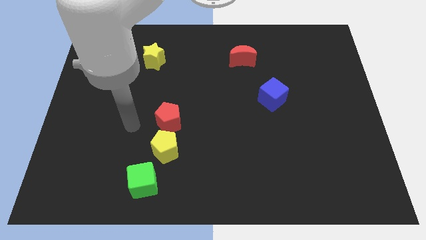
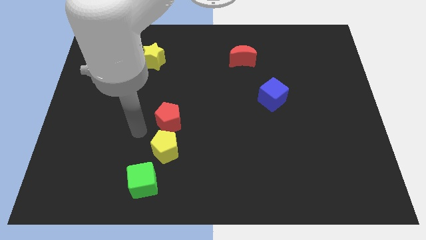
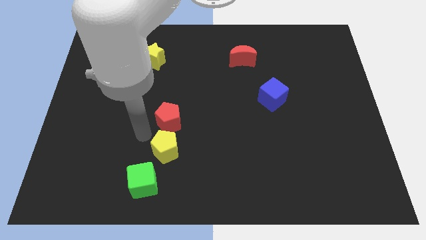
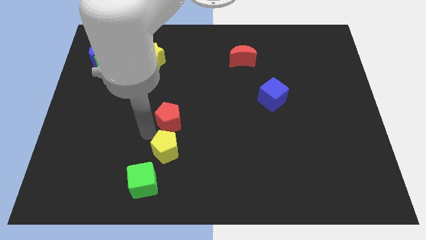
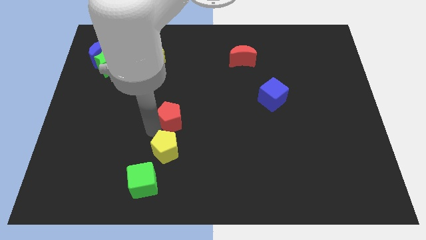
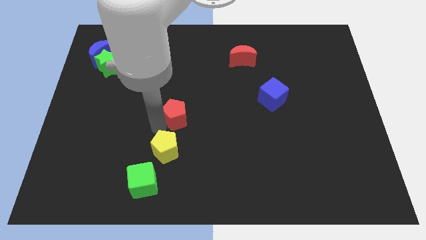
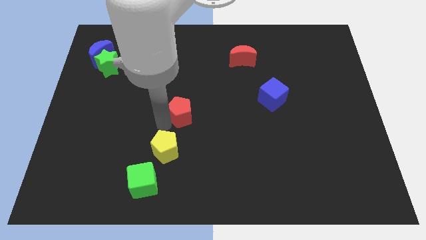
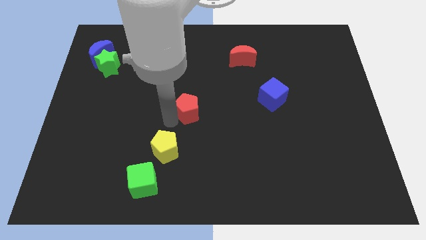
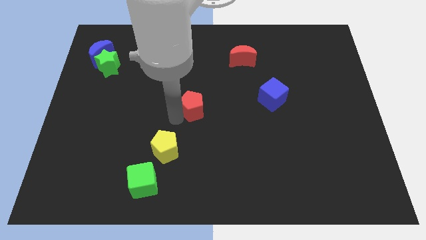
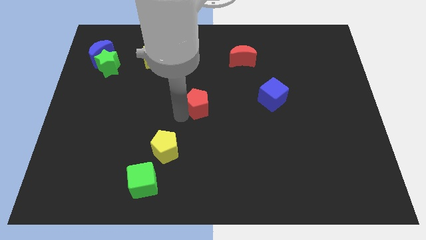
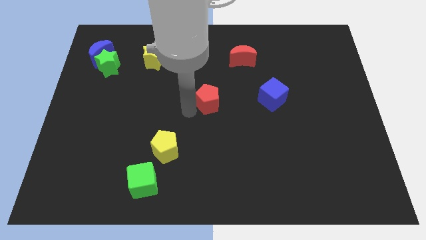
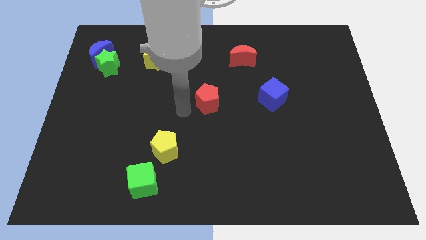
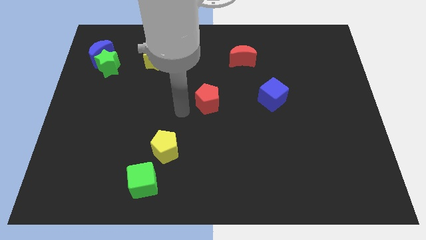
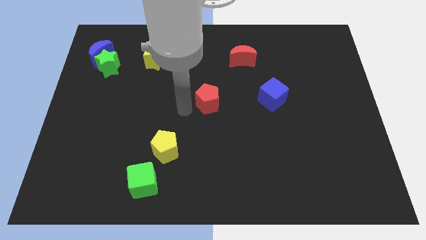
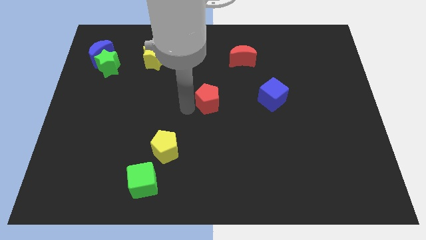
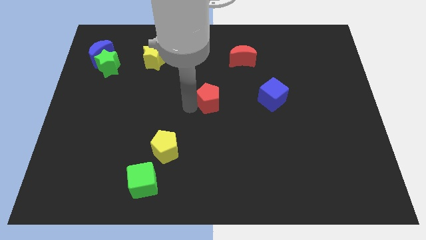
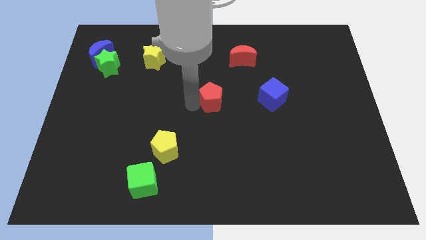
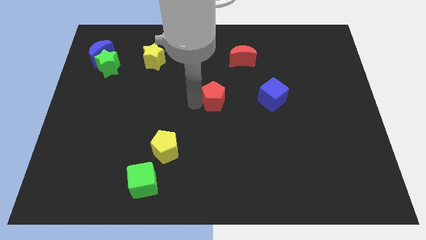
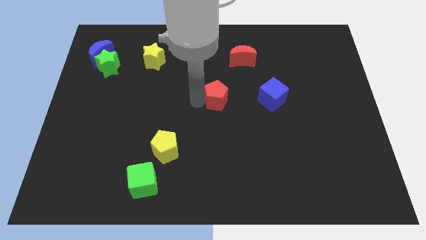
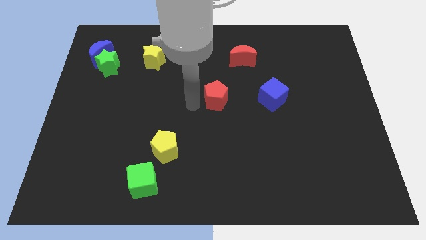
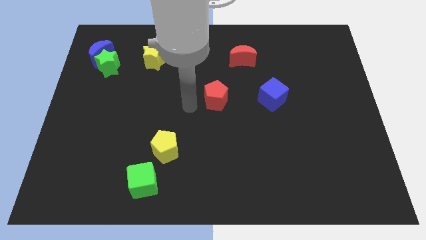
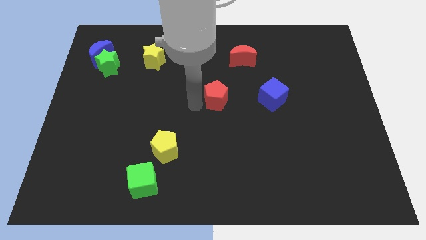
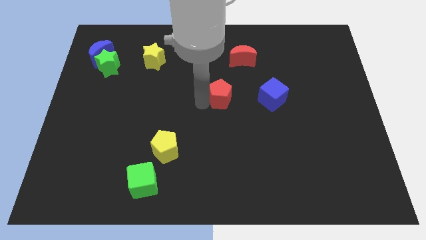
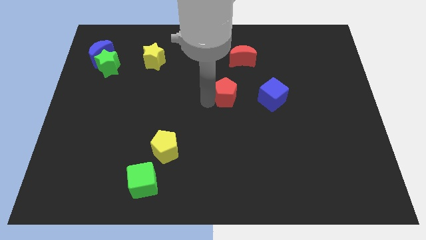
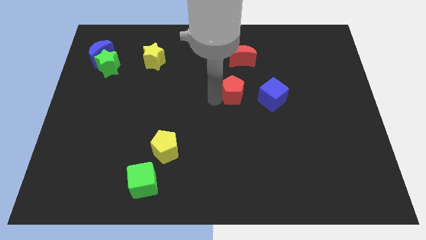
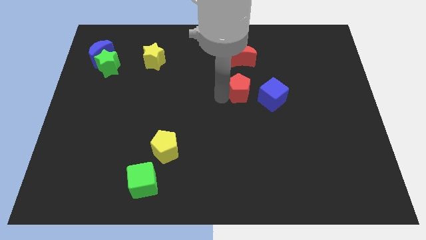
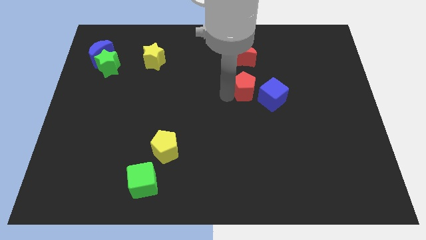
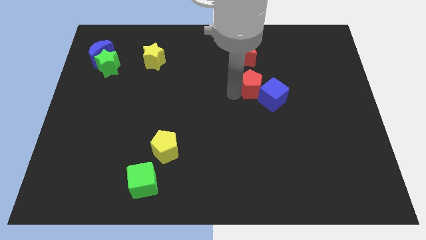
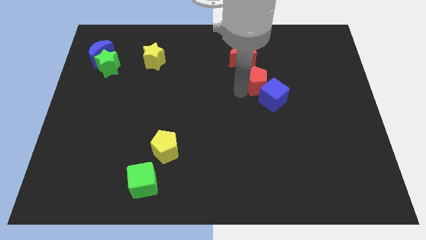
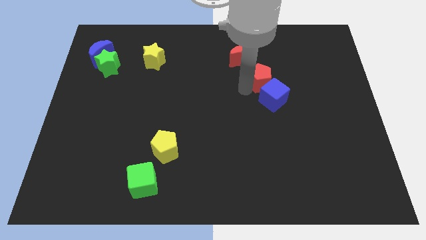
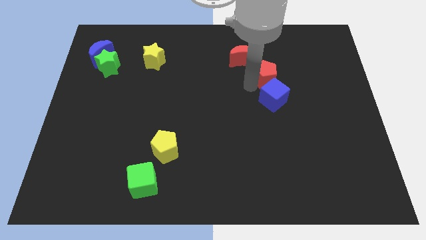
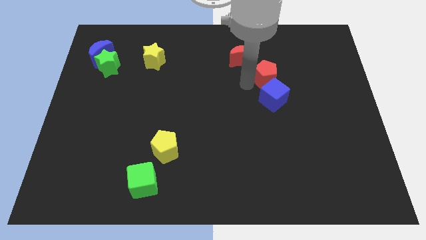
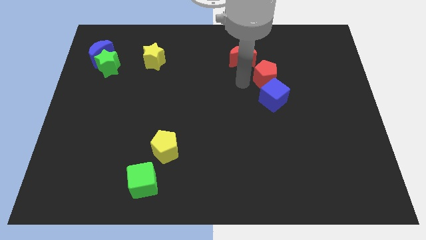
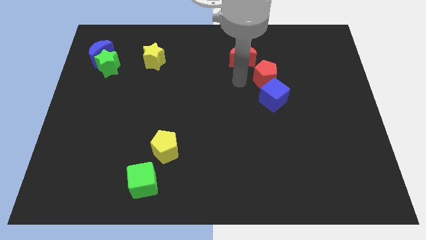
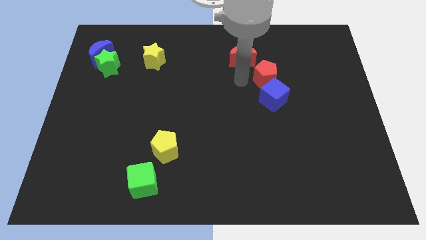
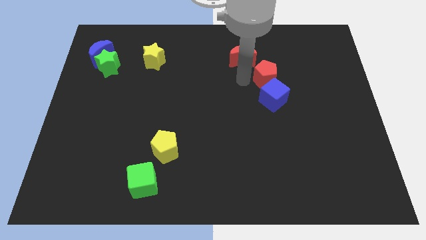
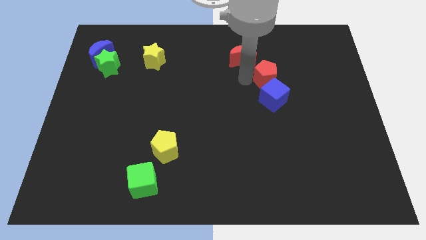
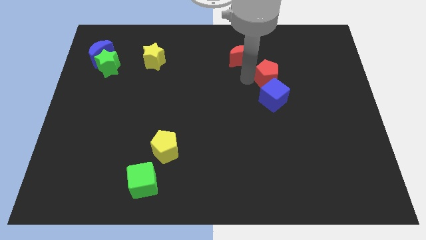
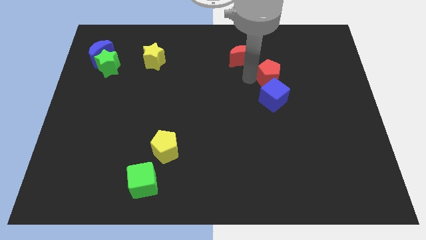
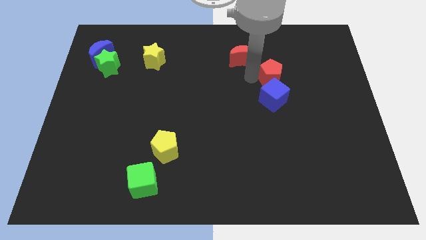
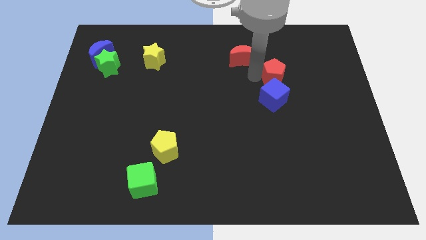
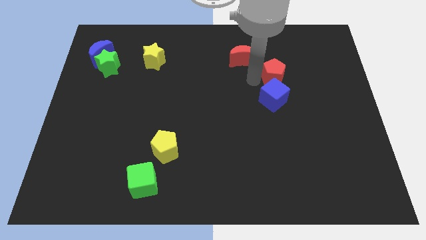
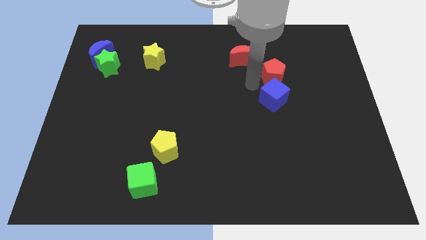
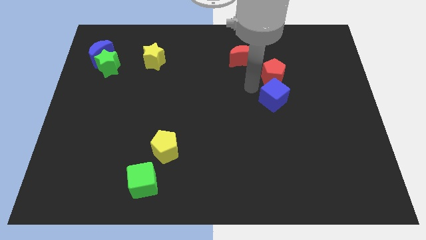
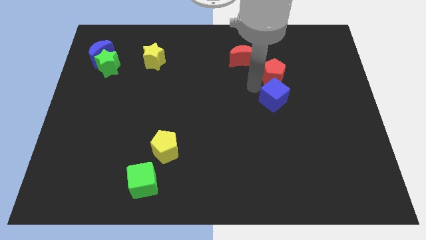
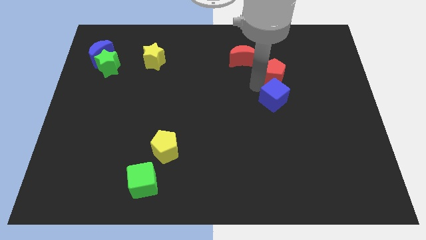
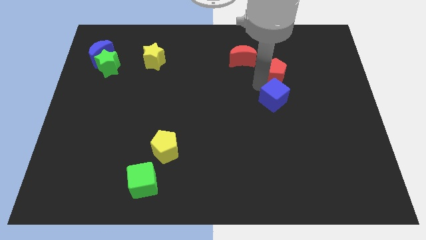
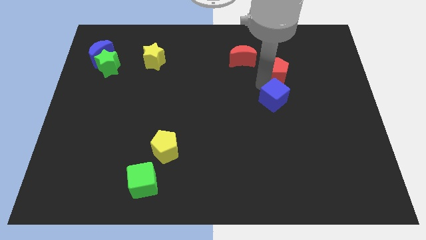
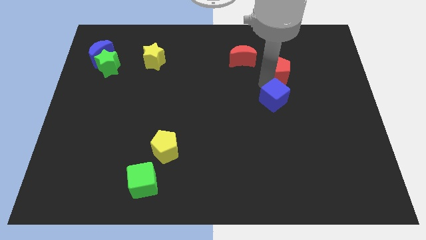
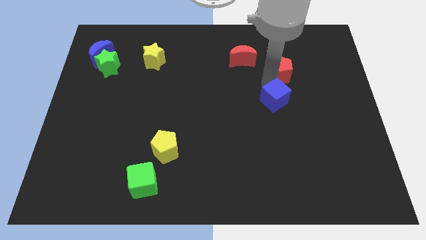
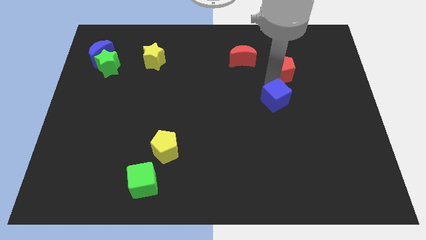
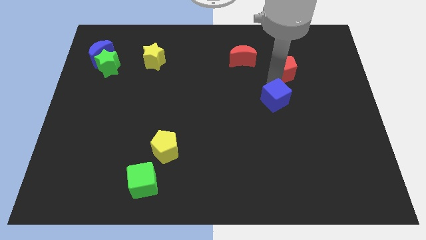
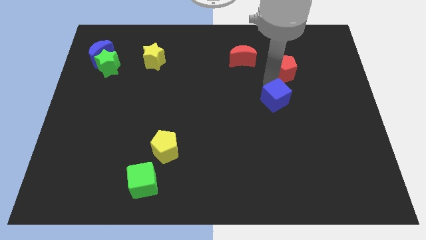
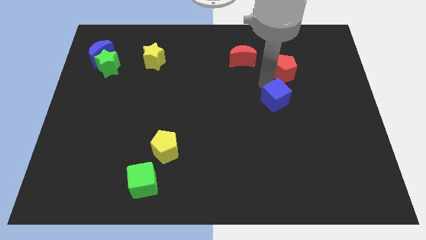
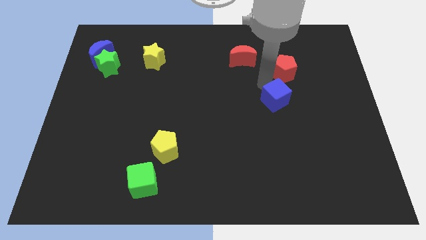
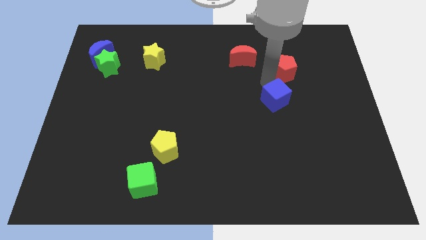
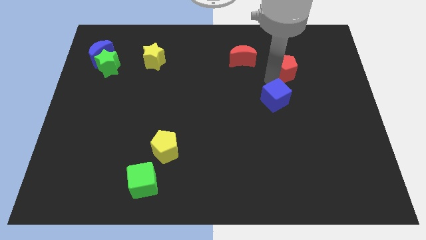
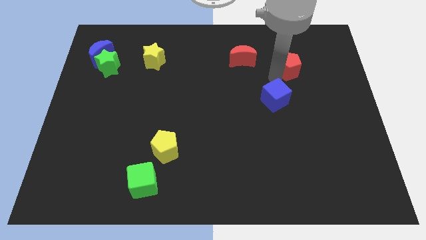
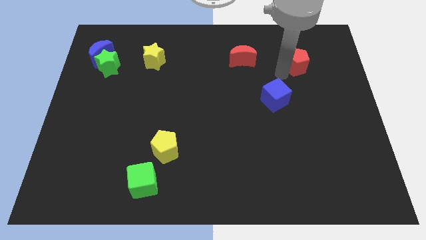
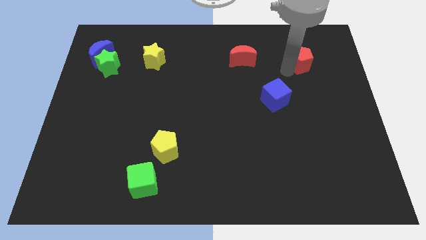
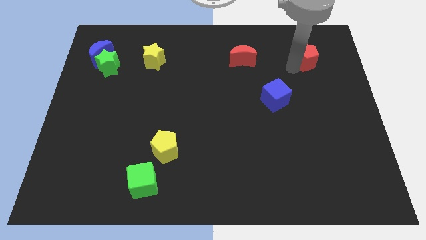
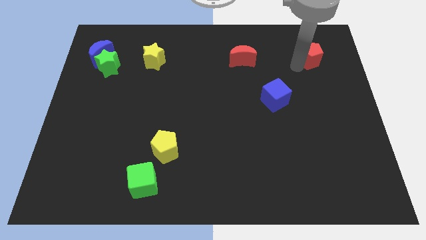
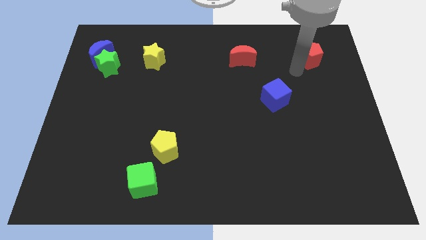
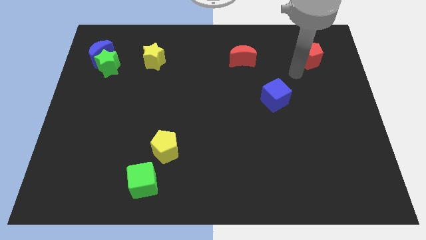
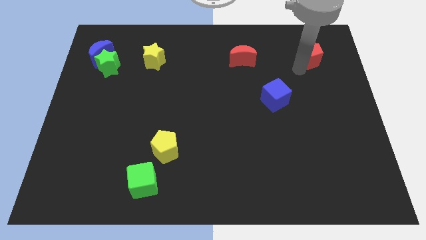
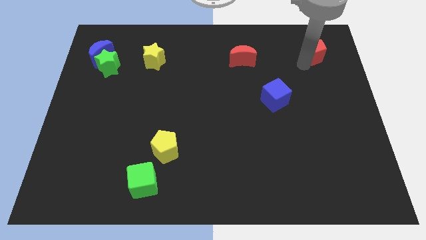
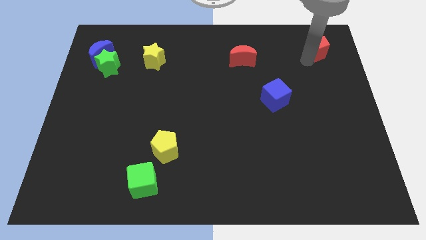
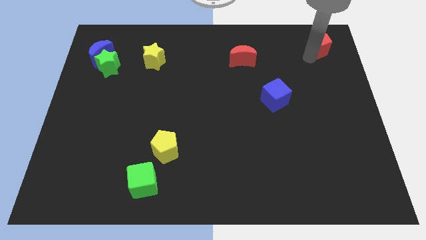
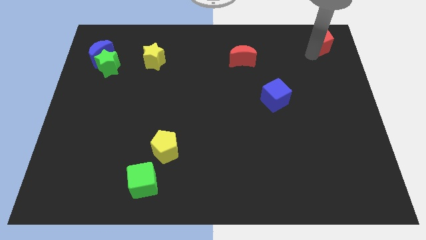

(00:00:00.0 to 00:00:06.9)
slide the red pentagon to the top right
